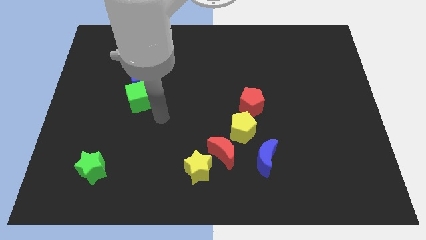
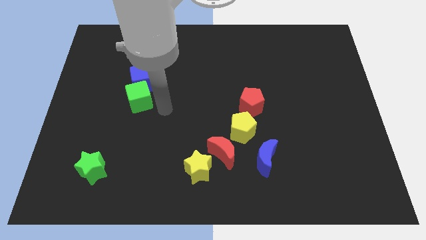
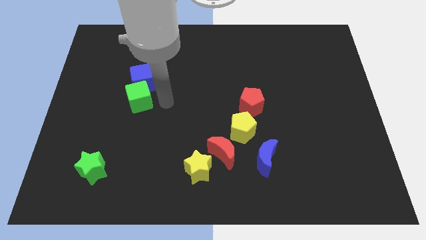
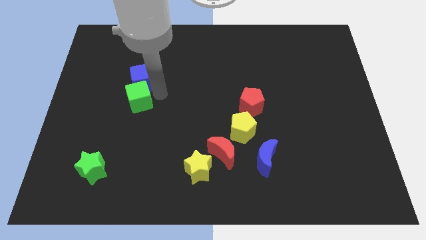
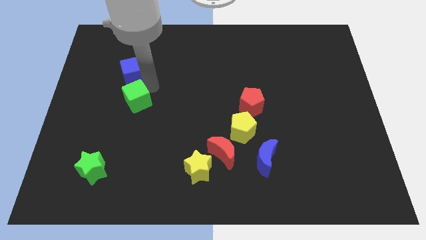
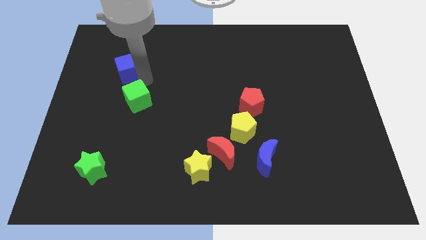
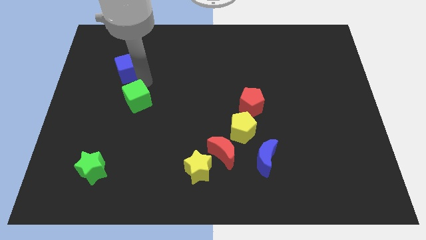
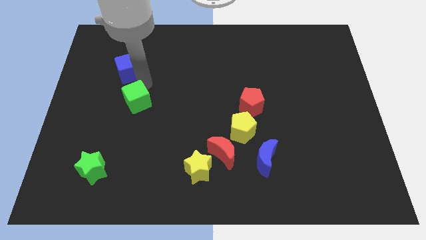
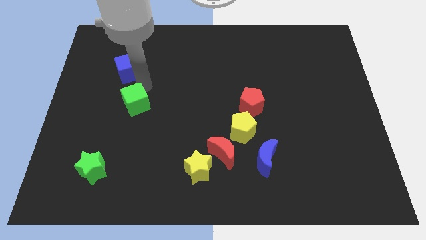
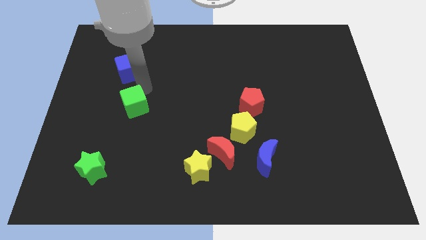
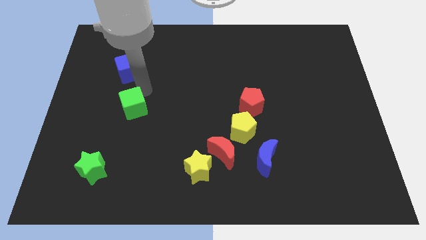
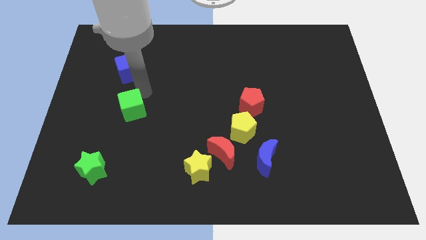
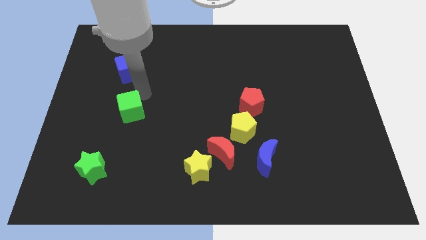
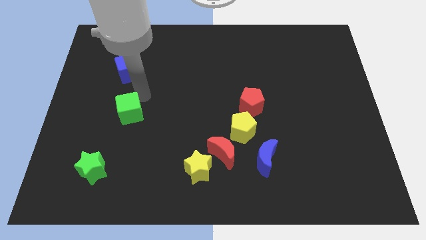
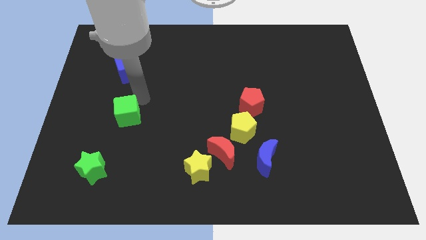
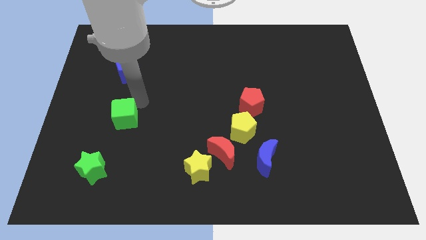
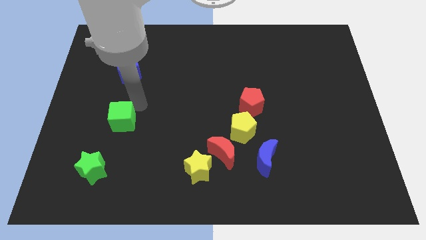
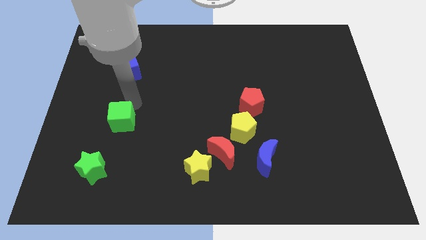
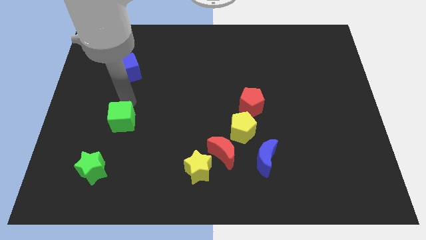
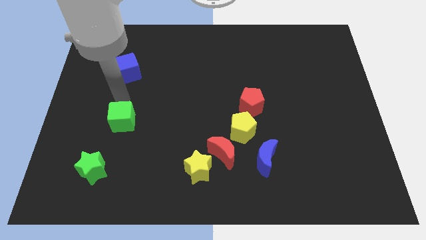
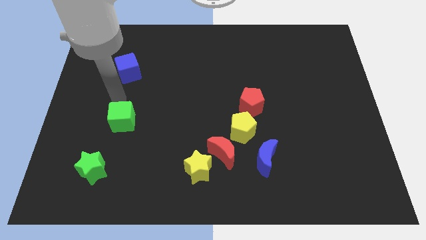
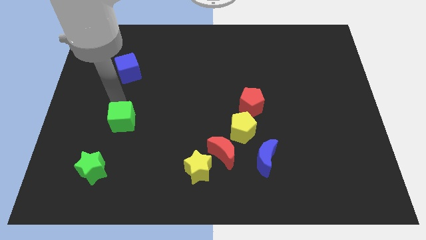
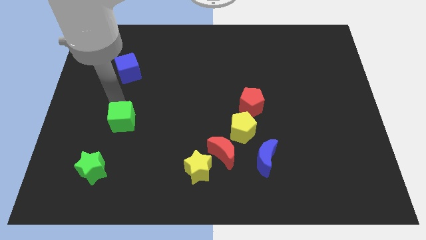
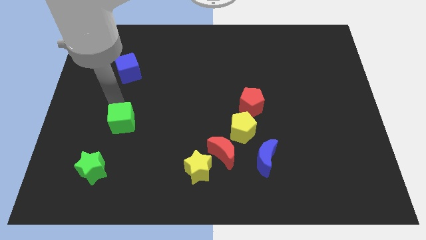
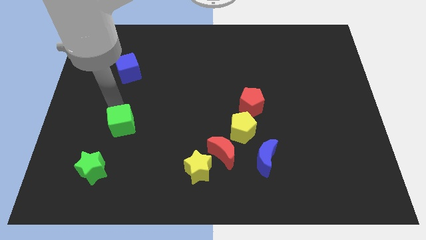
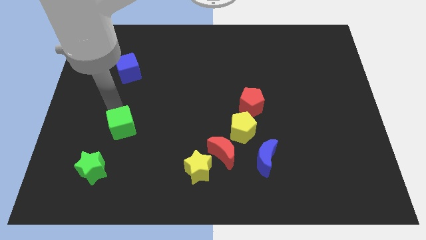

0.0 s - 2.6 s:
push the green cube a little downwards

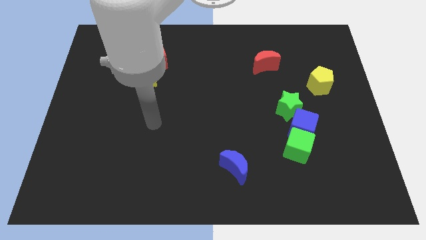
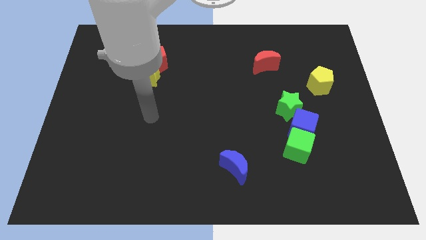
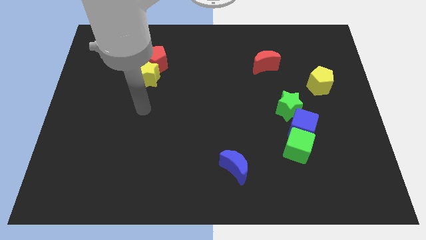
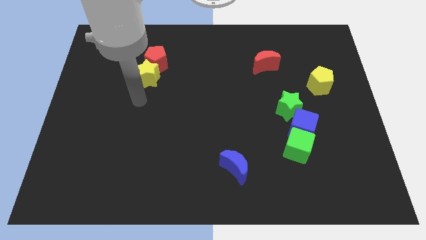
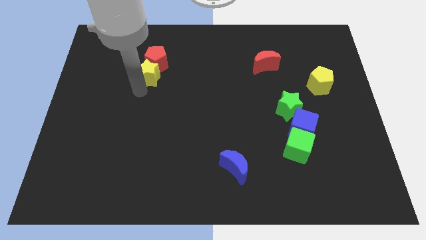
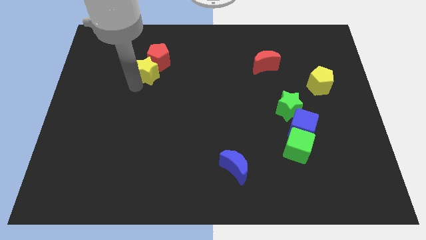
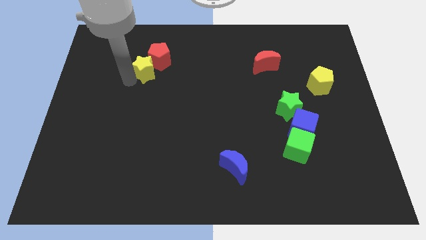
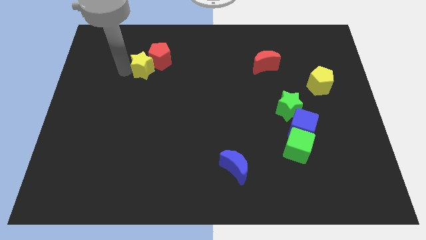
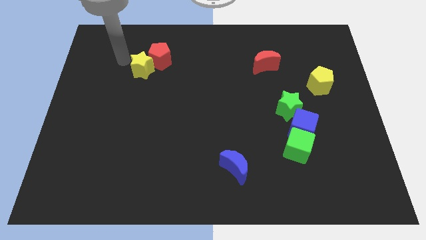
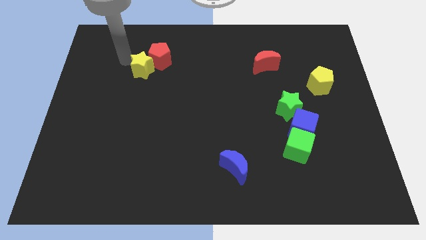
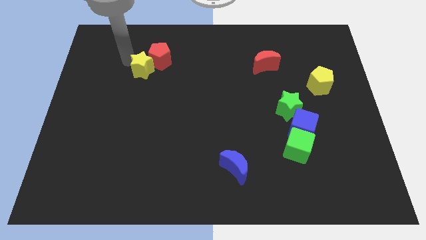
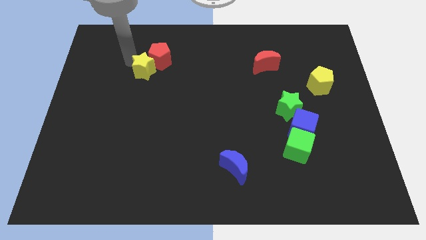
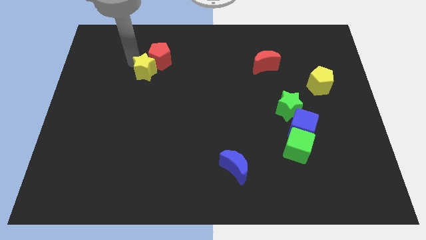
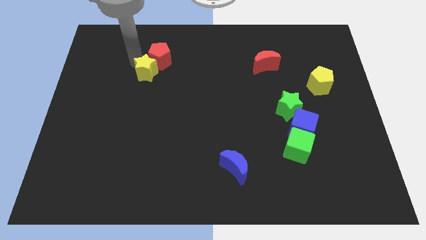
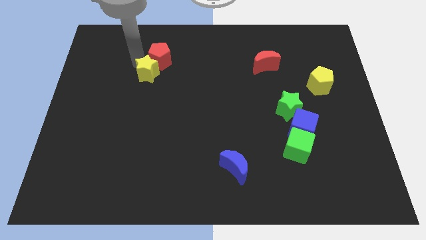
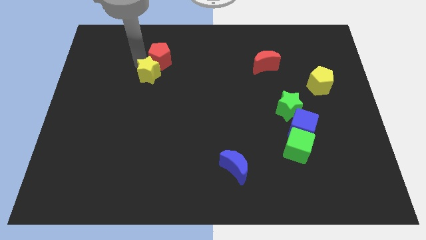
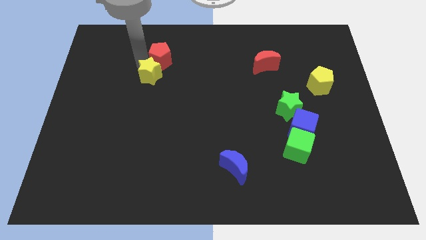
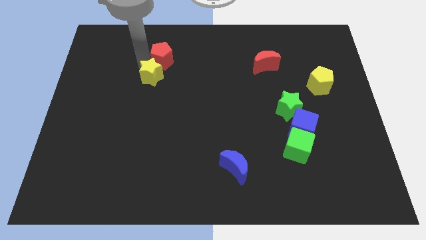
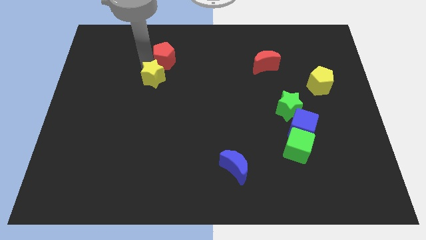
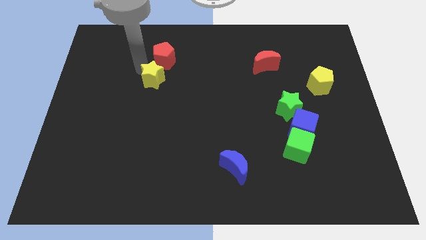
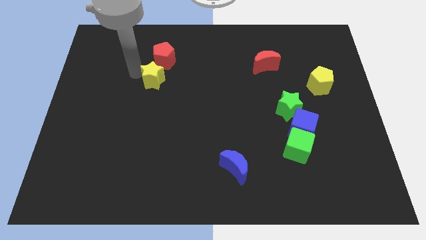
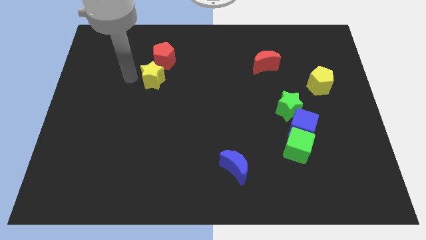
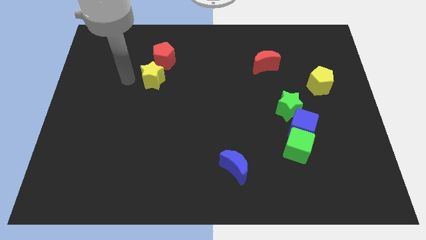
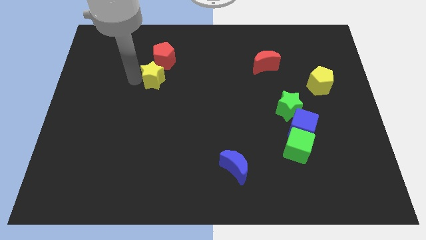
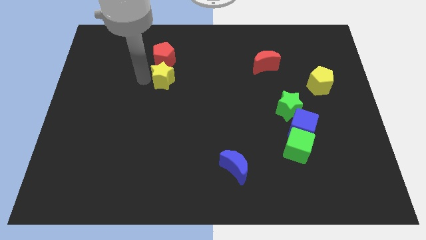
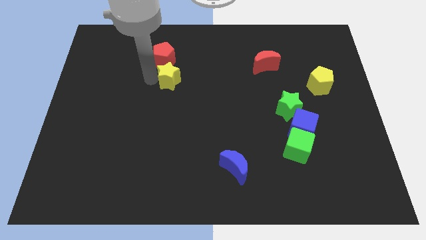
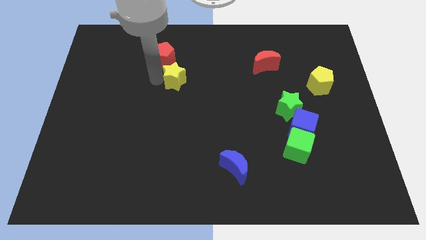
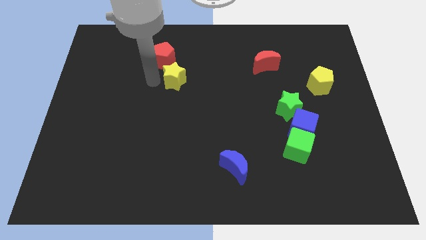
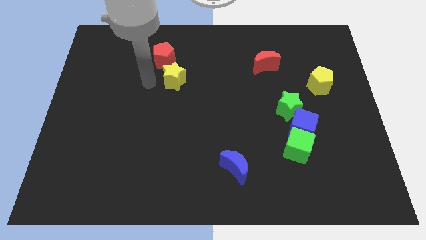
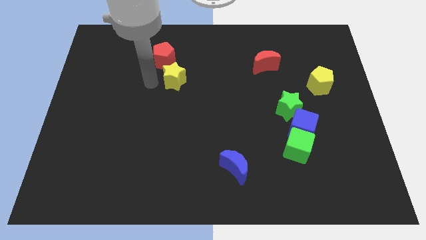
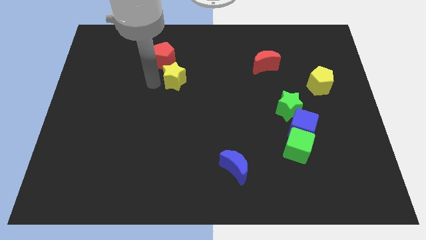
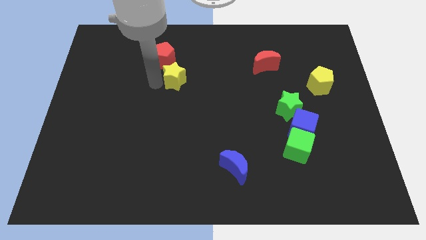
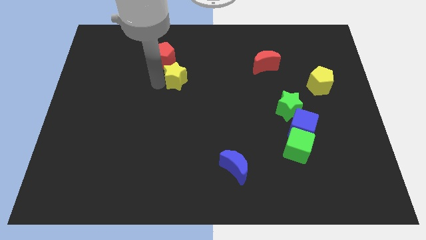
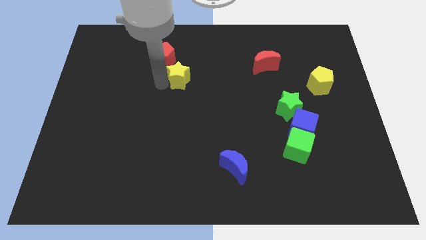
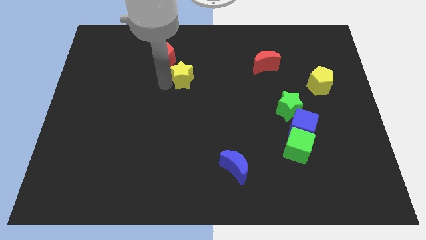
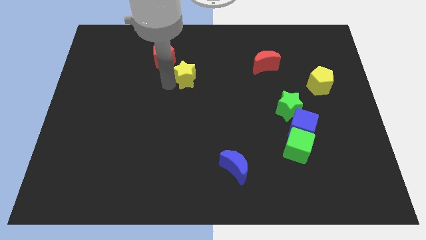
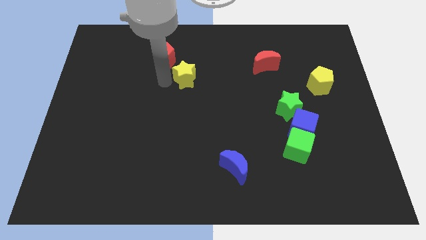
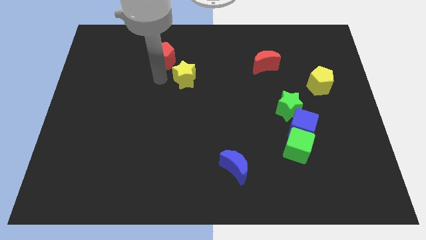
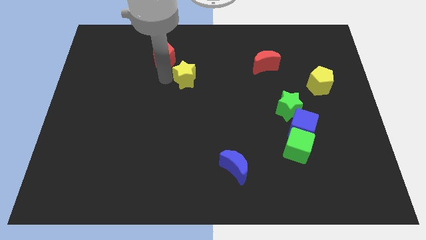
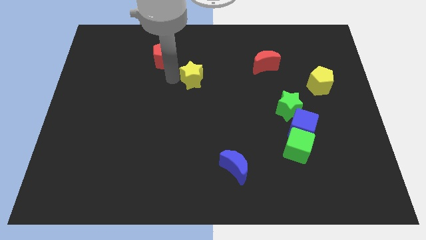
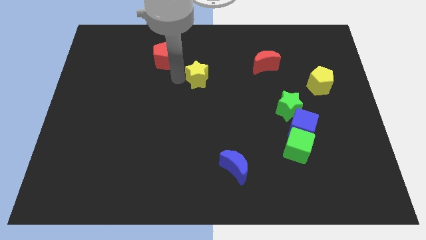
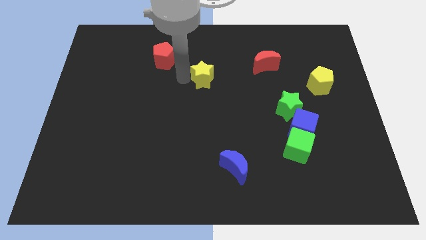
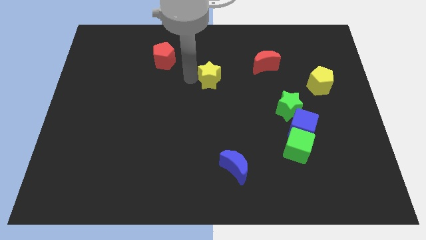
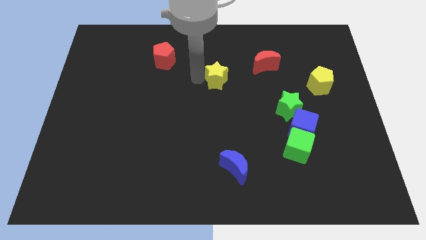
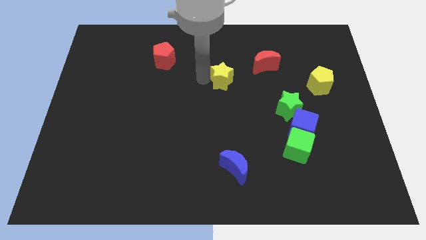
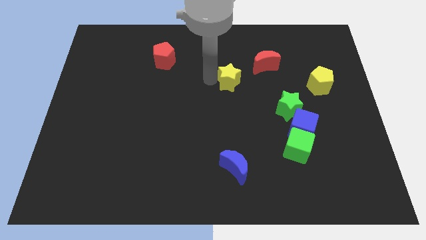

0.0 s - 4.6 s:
slide the yellow star right

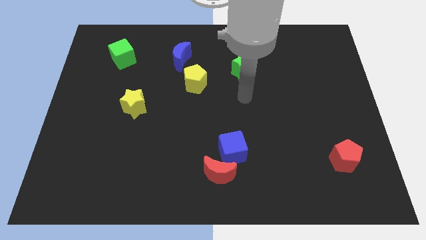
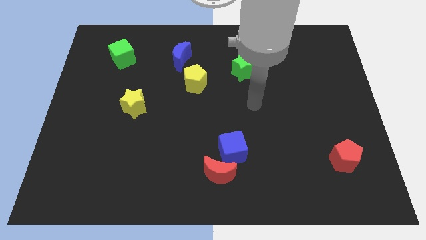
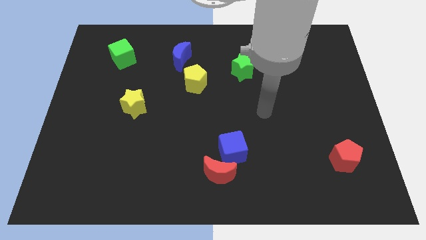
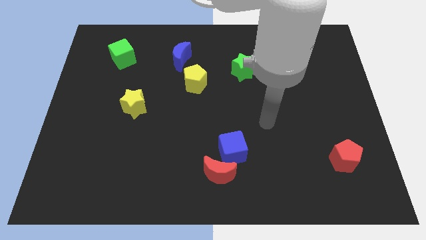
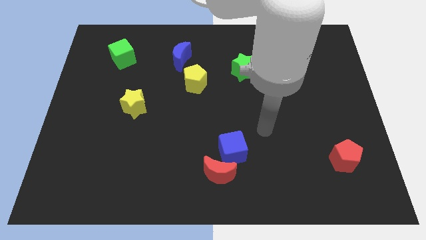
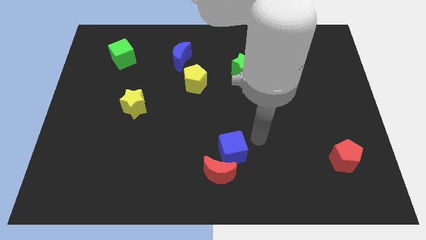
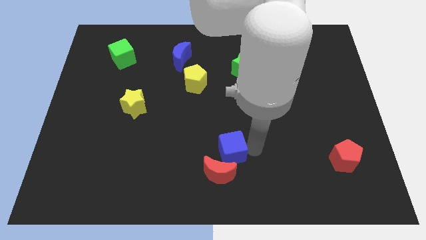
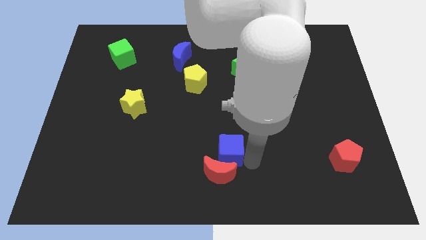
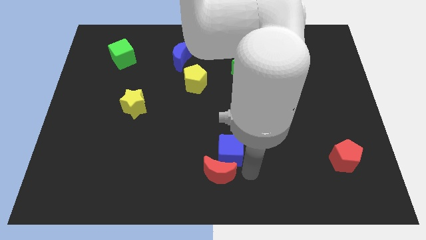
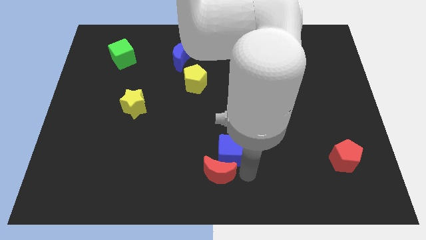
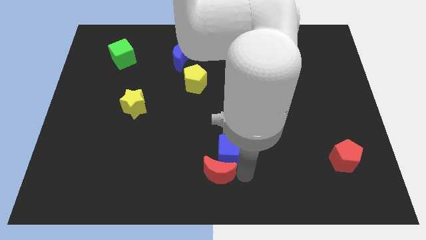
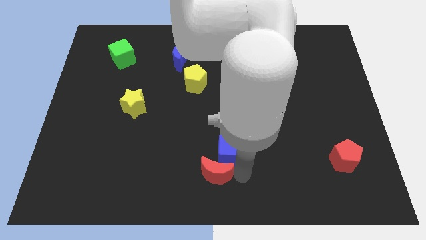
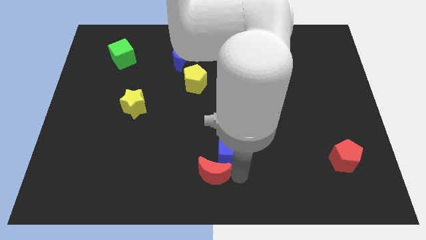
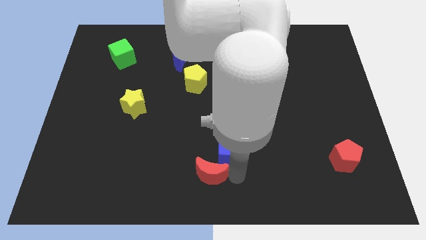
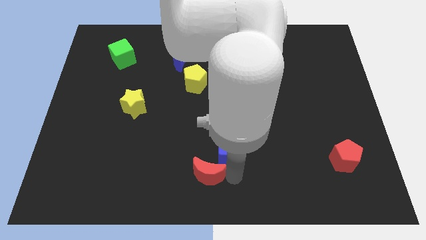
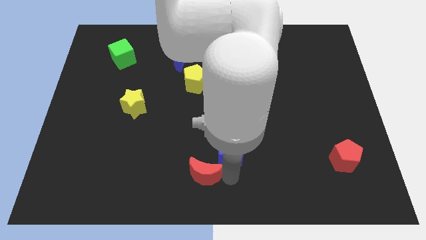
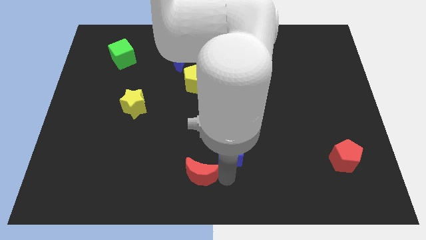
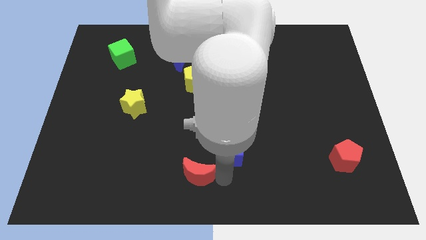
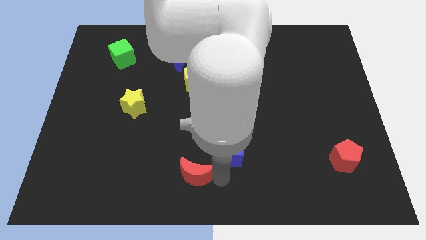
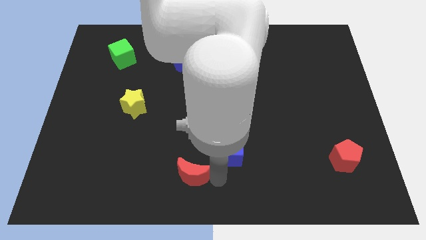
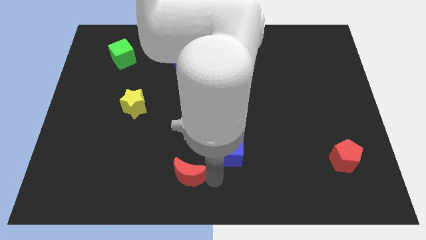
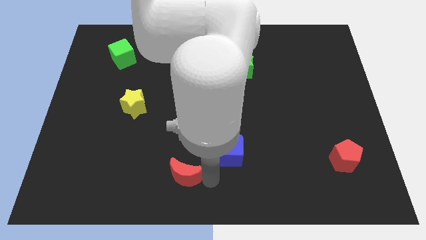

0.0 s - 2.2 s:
push the red moon a little bit to the left
